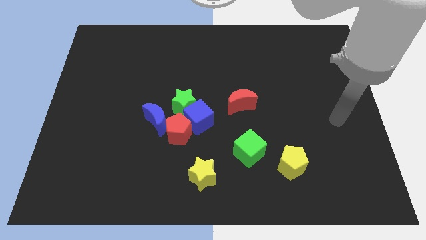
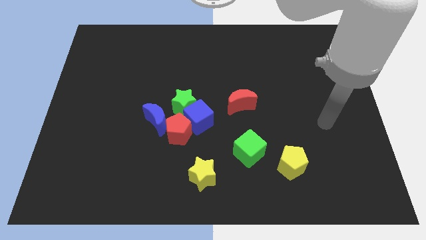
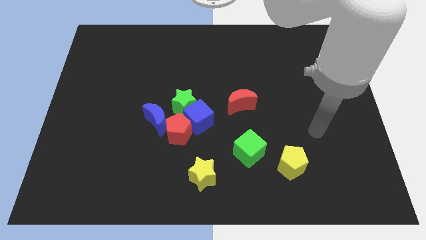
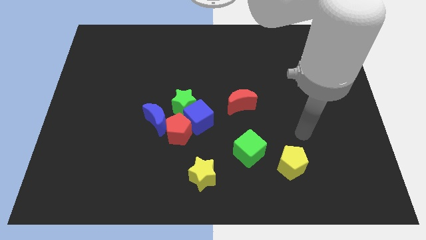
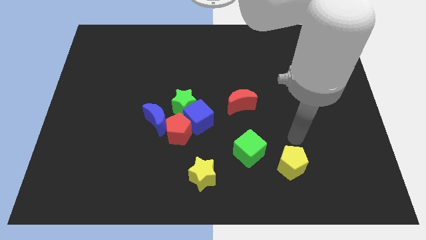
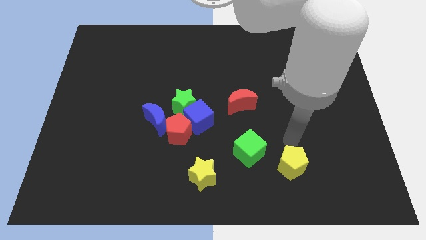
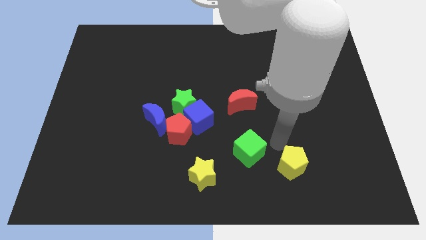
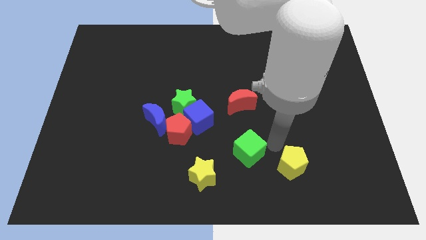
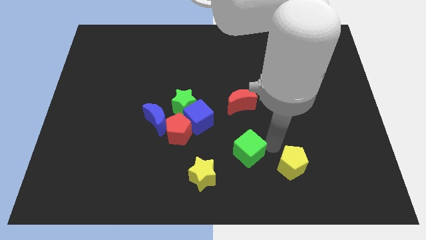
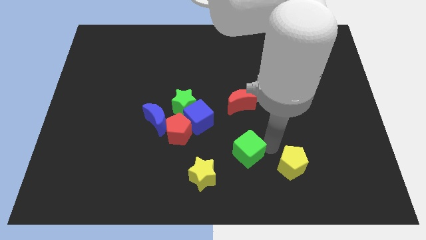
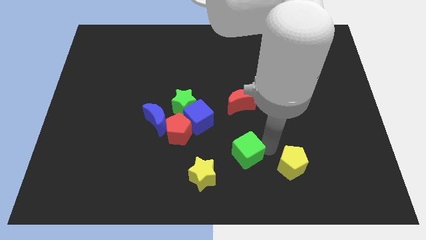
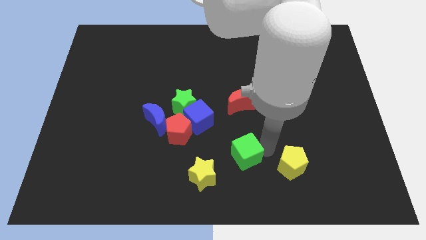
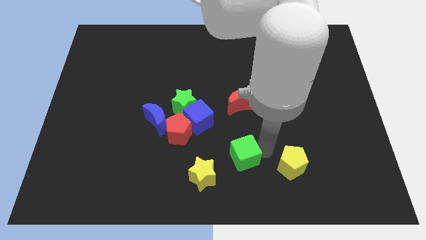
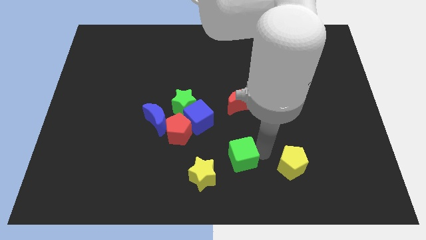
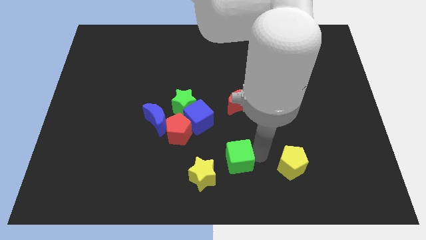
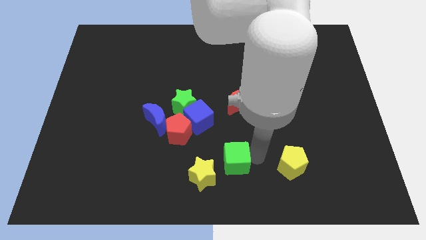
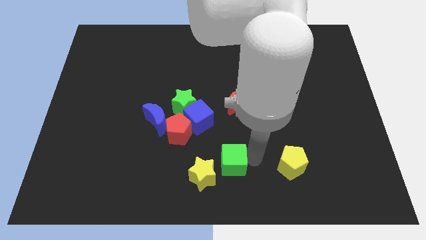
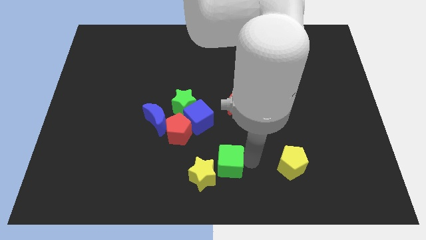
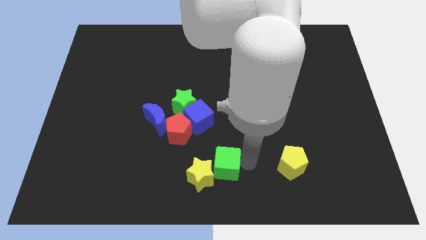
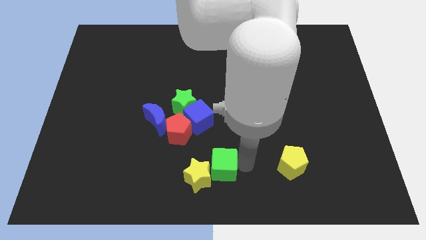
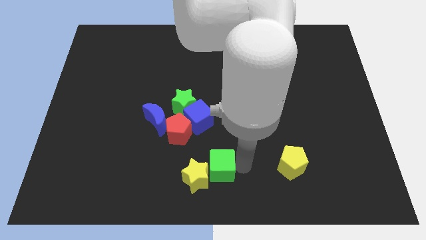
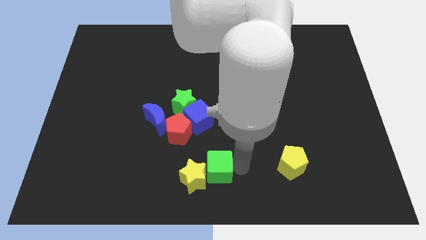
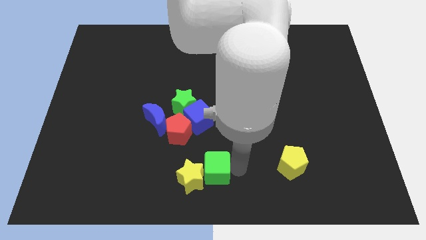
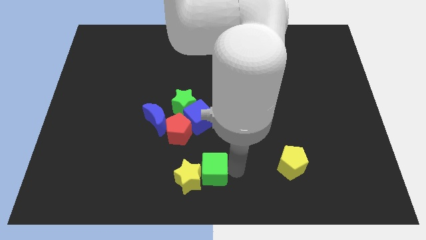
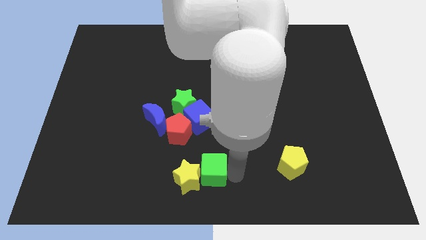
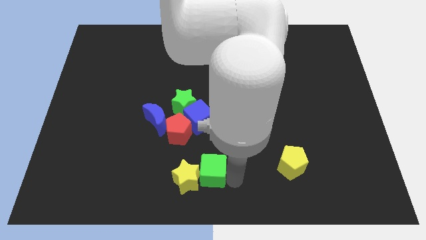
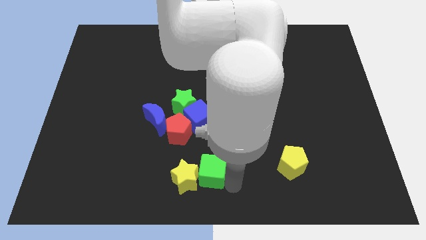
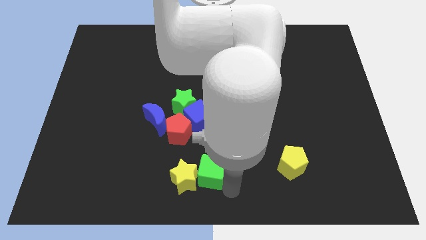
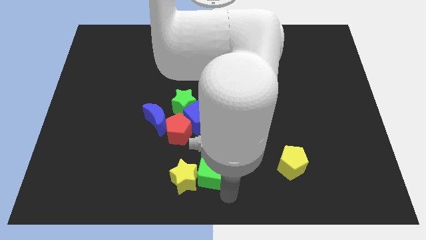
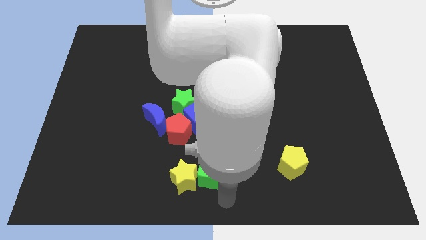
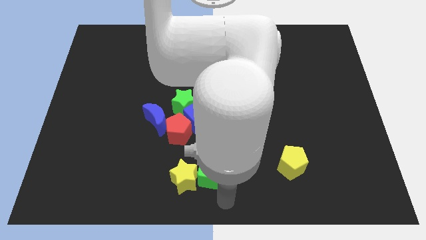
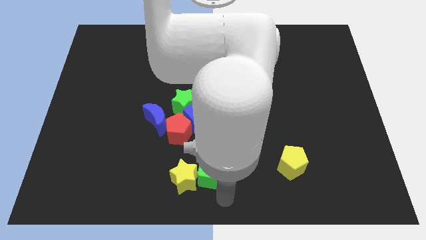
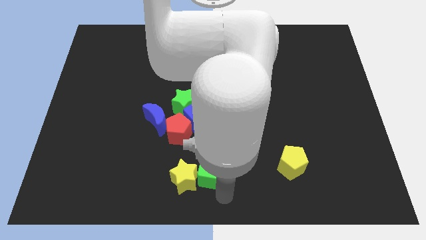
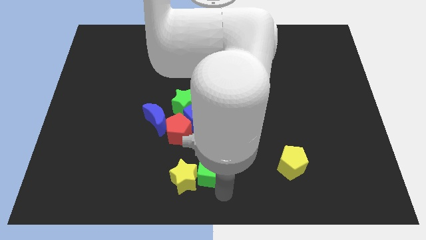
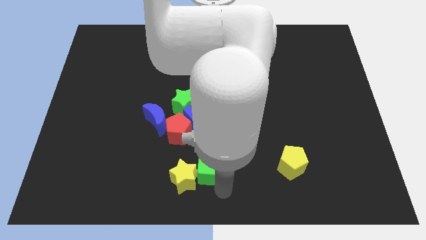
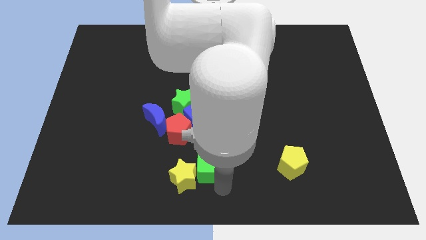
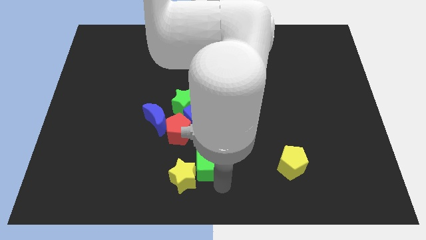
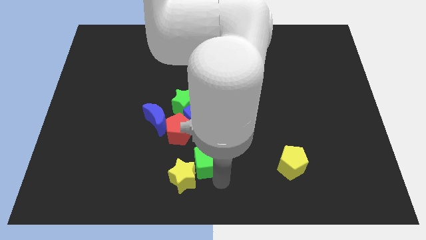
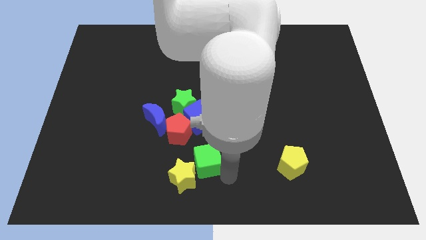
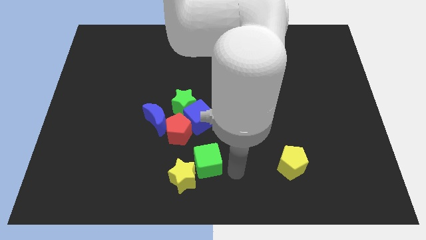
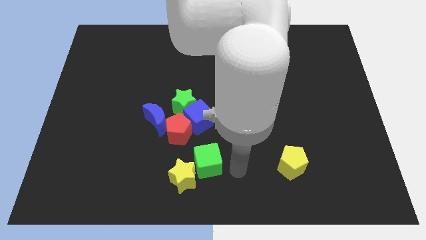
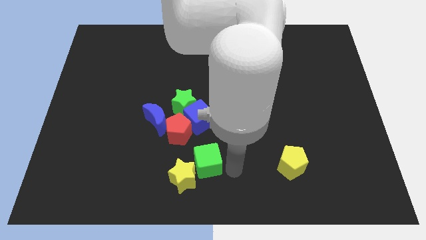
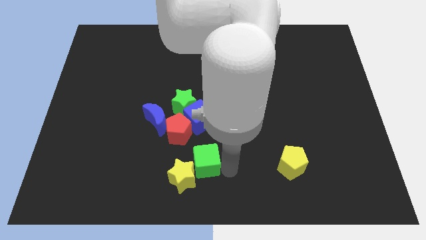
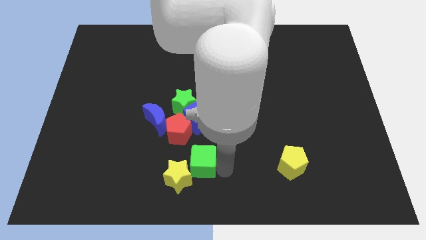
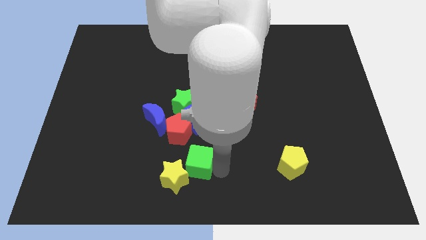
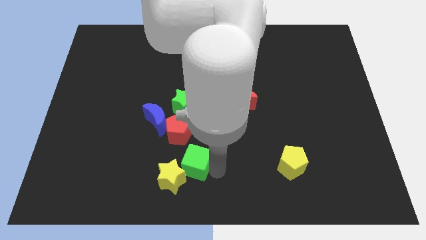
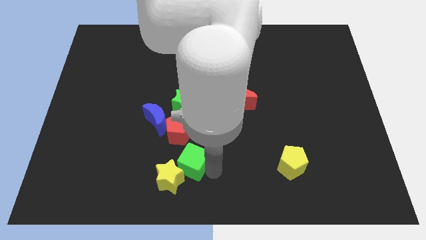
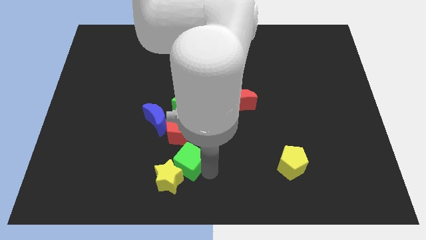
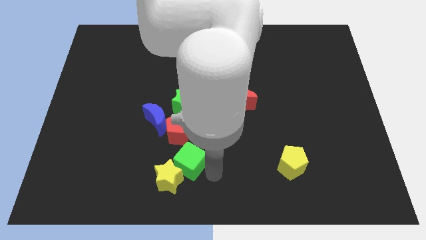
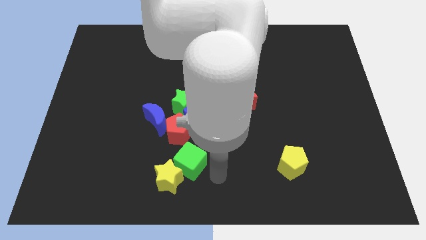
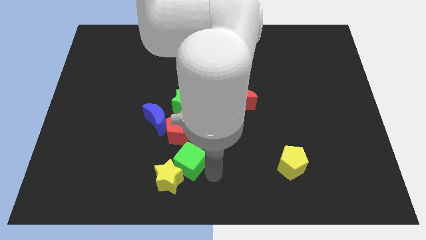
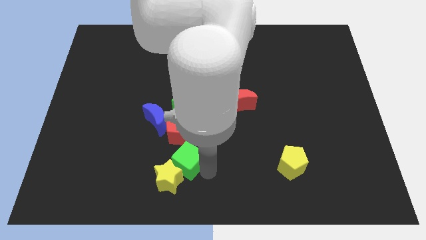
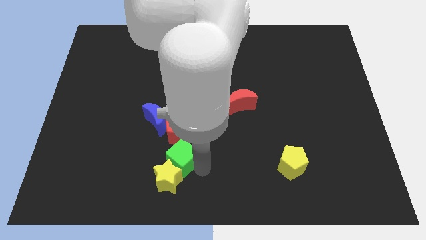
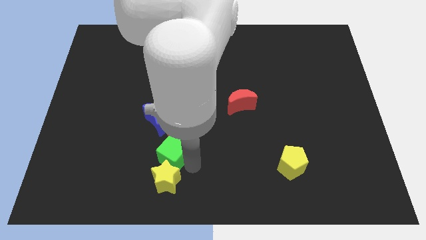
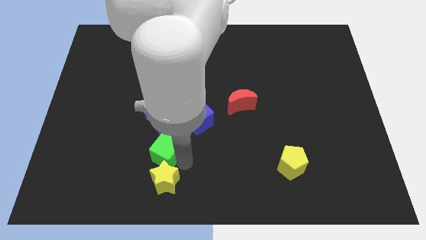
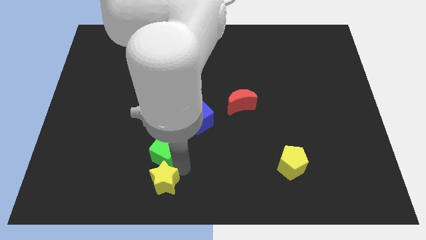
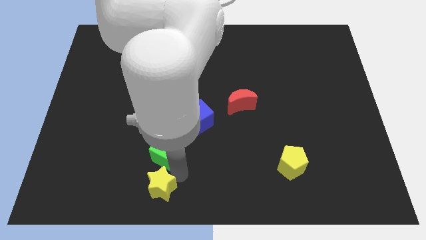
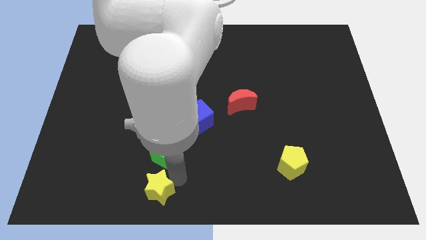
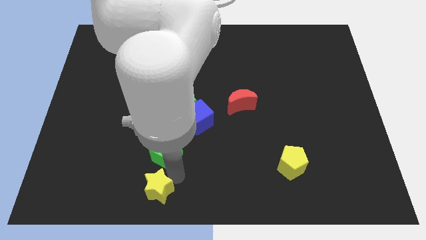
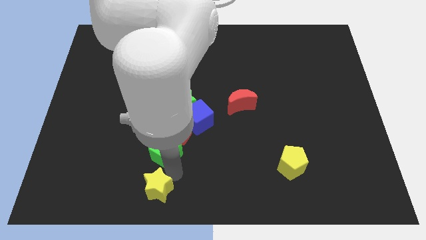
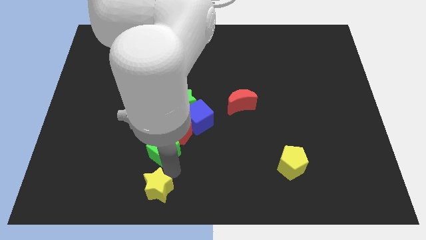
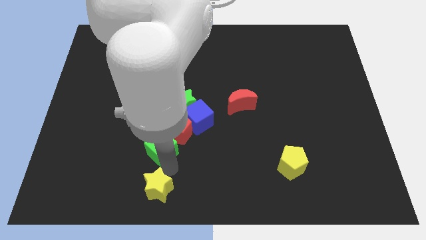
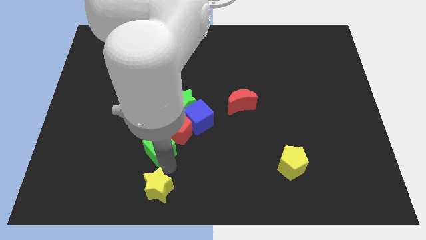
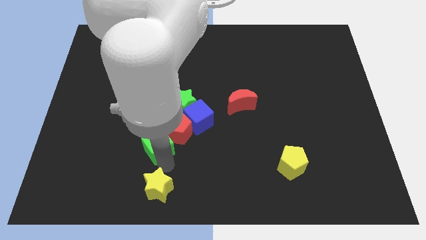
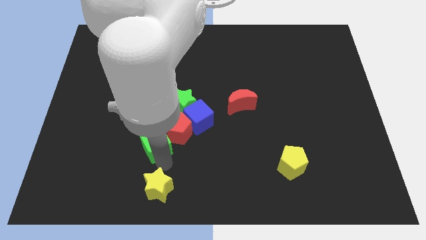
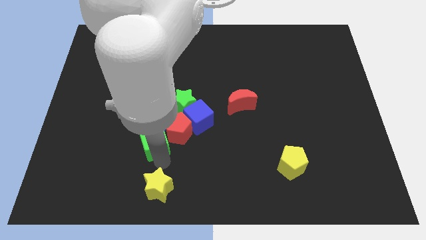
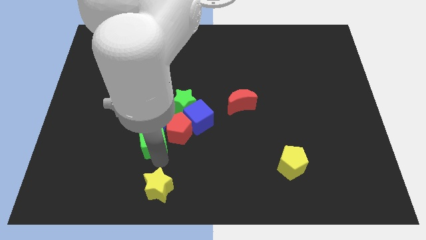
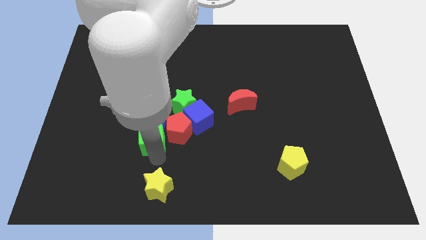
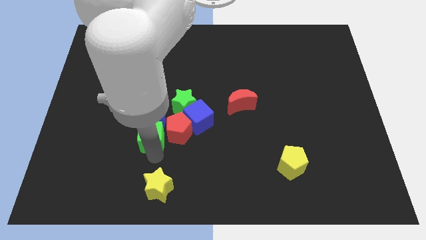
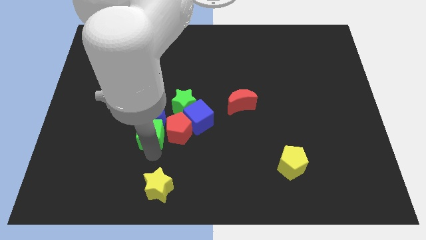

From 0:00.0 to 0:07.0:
push the green cube close to the blue moon
